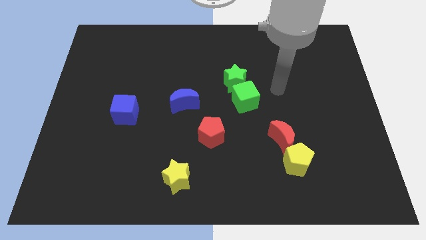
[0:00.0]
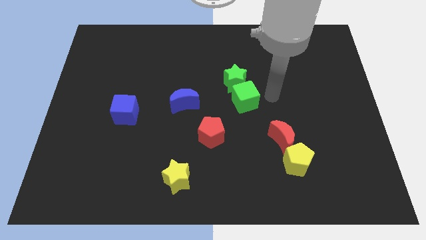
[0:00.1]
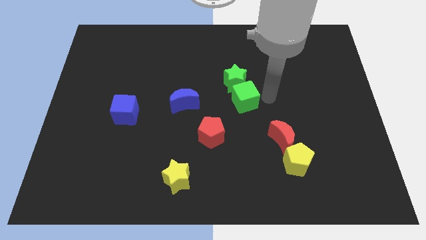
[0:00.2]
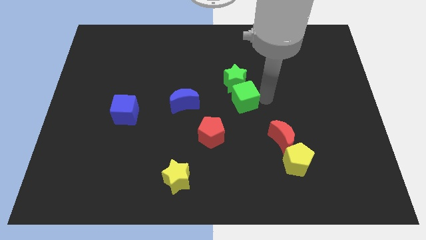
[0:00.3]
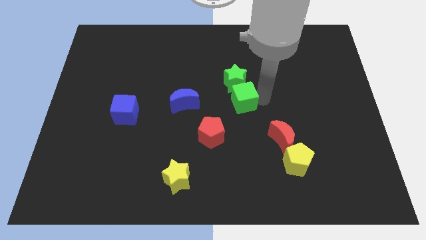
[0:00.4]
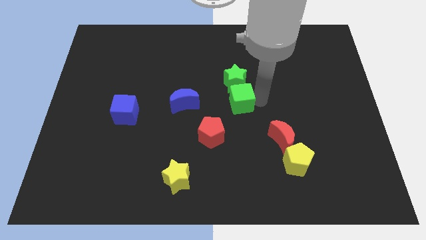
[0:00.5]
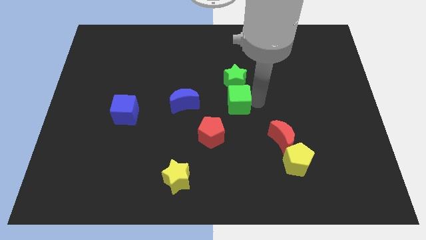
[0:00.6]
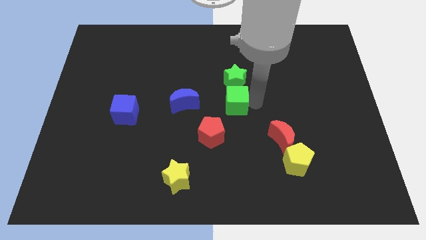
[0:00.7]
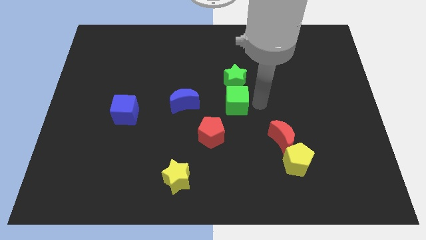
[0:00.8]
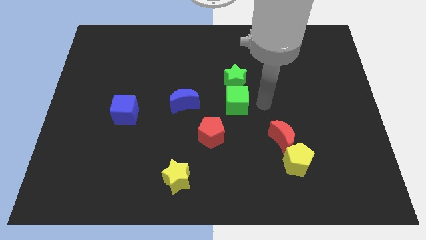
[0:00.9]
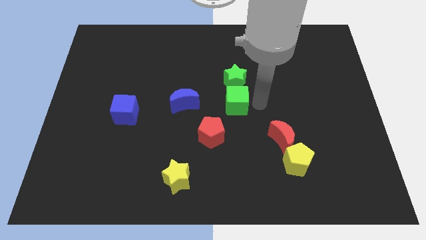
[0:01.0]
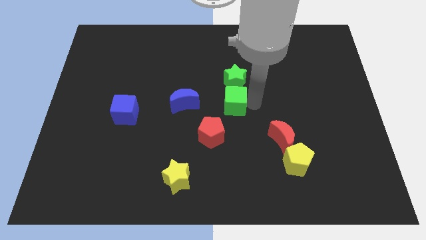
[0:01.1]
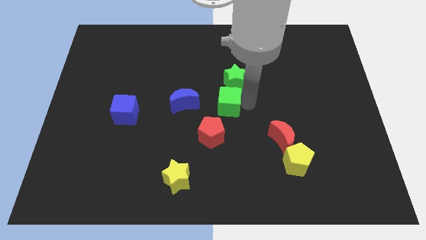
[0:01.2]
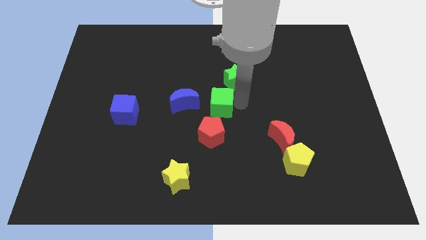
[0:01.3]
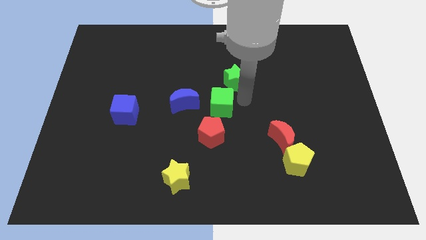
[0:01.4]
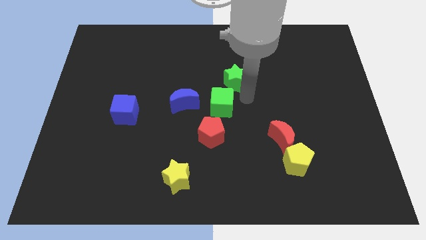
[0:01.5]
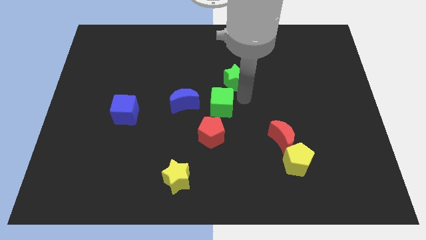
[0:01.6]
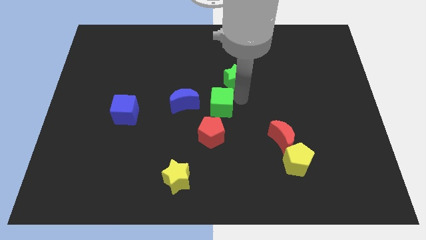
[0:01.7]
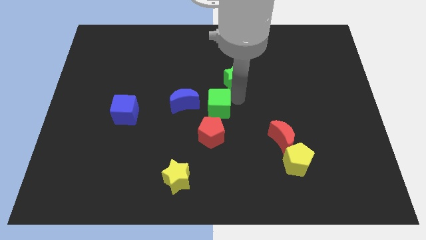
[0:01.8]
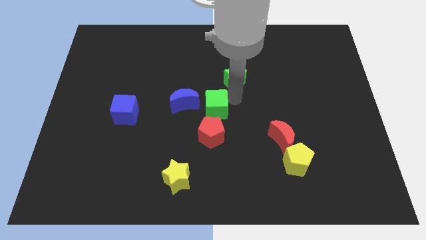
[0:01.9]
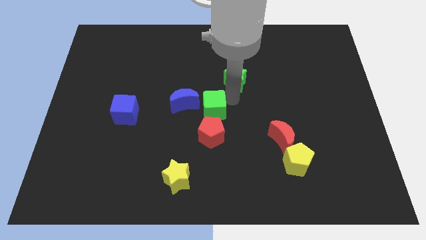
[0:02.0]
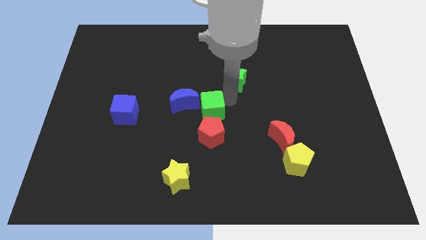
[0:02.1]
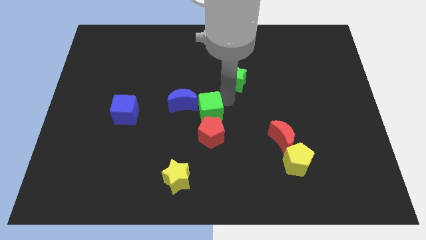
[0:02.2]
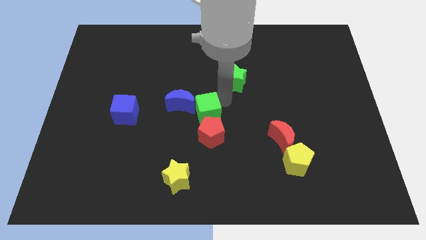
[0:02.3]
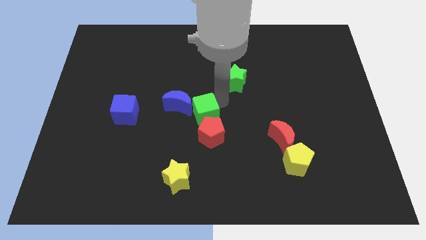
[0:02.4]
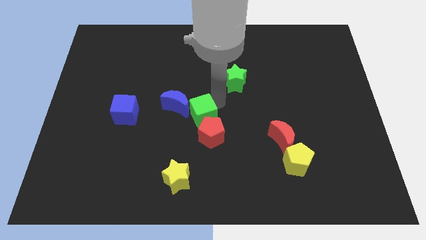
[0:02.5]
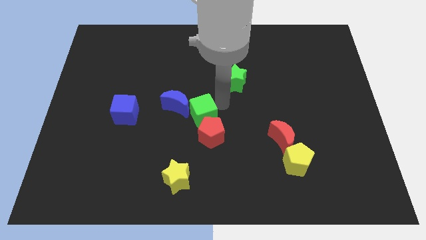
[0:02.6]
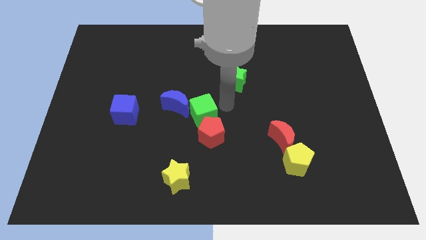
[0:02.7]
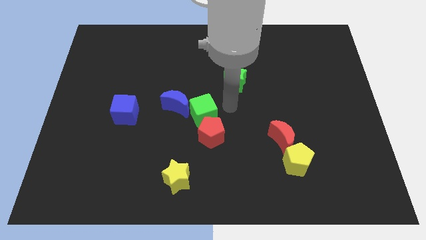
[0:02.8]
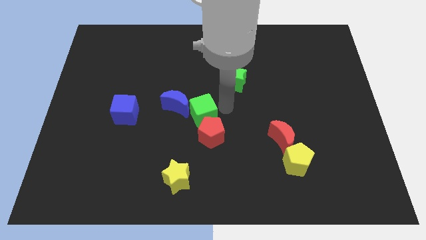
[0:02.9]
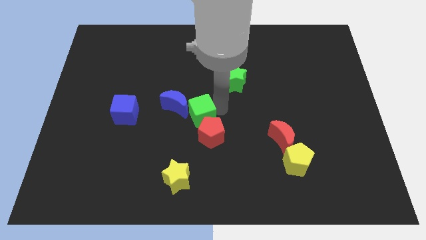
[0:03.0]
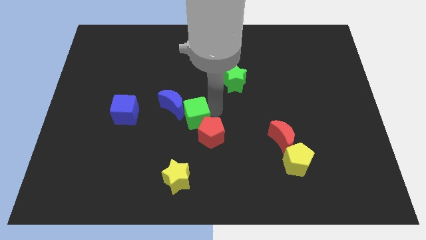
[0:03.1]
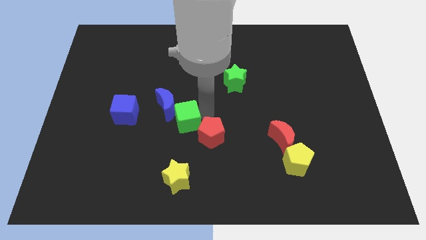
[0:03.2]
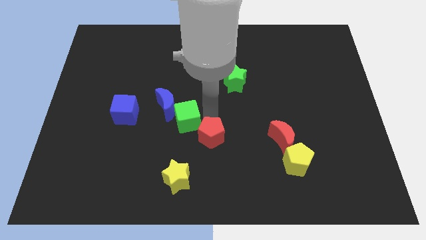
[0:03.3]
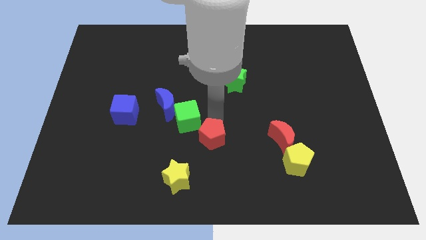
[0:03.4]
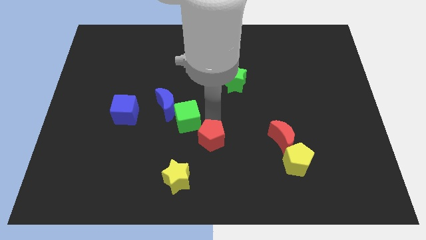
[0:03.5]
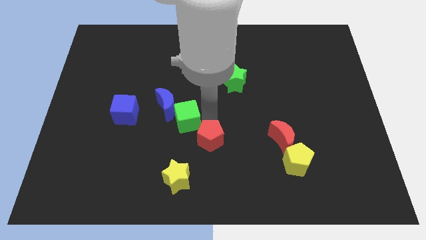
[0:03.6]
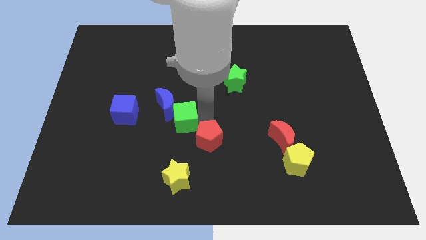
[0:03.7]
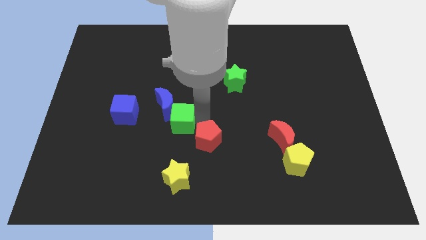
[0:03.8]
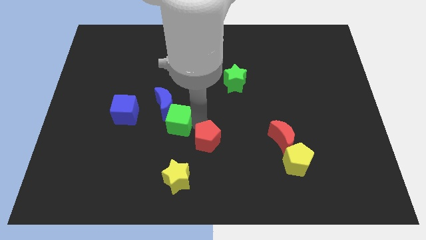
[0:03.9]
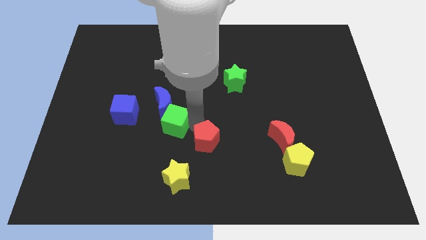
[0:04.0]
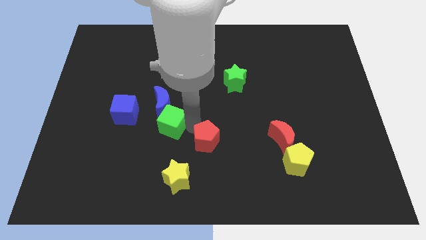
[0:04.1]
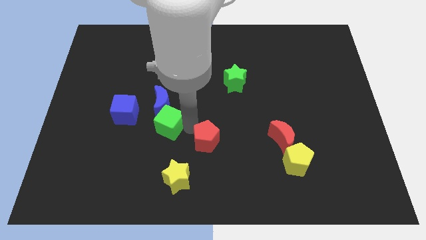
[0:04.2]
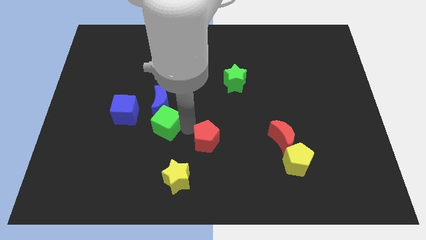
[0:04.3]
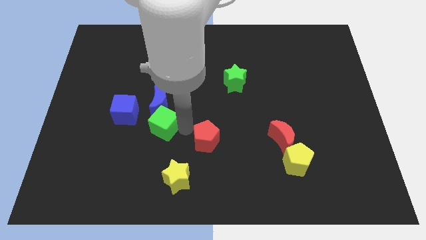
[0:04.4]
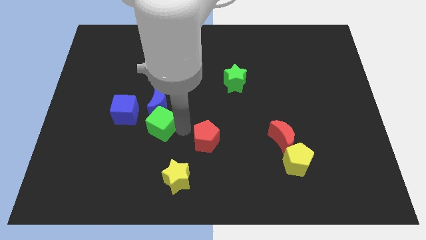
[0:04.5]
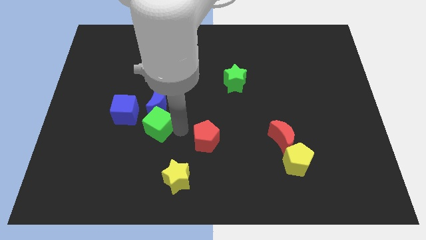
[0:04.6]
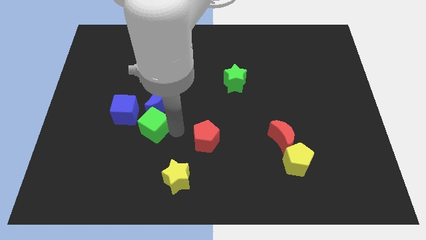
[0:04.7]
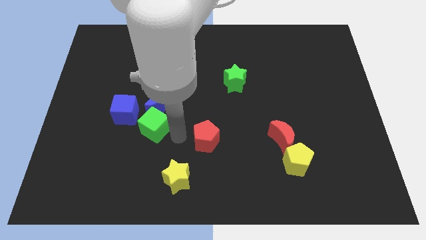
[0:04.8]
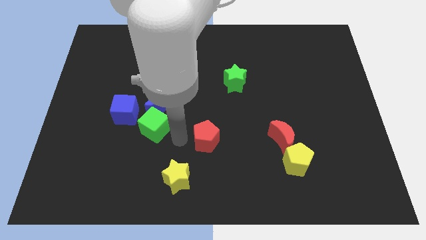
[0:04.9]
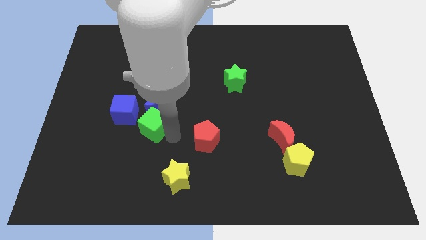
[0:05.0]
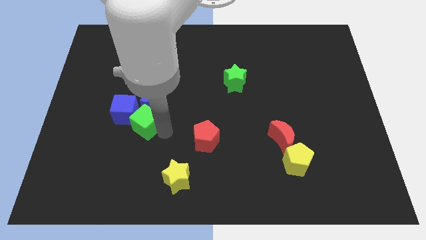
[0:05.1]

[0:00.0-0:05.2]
slide the green cube next to the blue cube

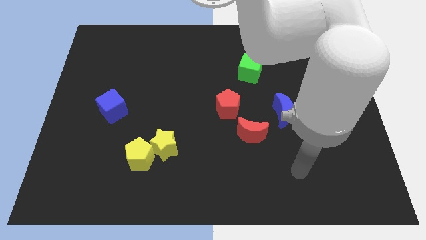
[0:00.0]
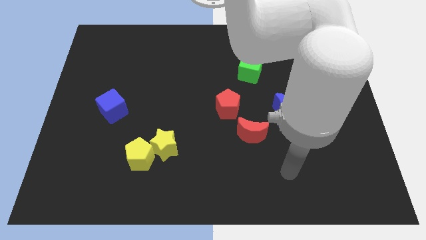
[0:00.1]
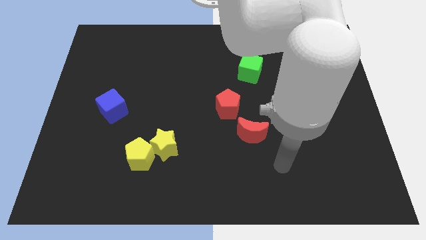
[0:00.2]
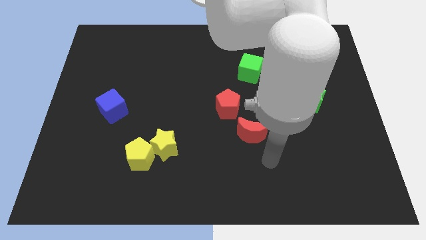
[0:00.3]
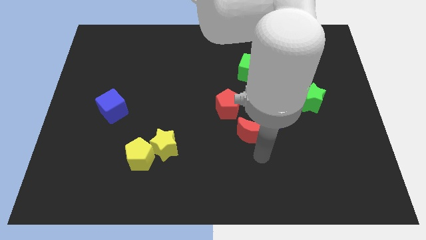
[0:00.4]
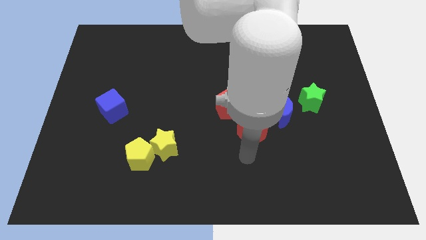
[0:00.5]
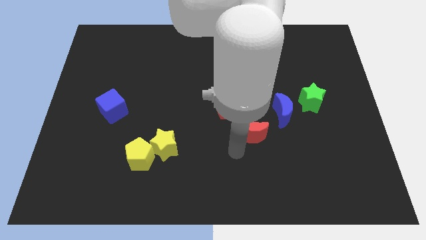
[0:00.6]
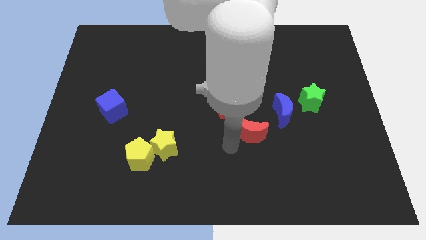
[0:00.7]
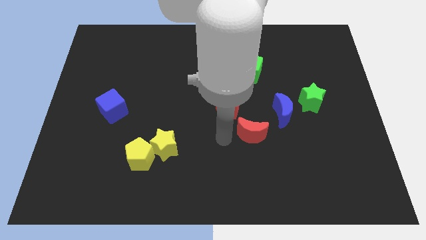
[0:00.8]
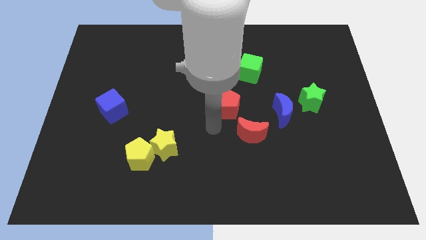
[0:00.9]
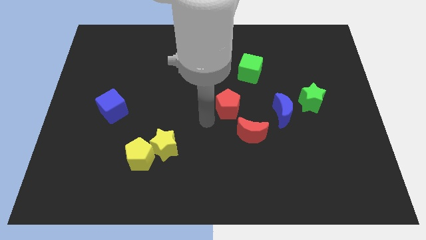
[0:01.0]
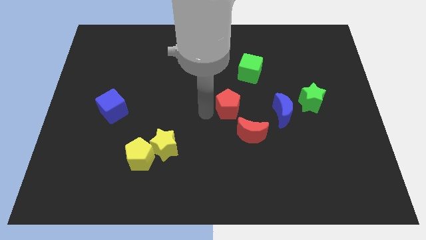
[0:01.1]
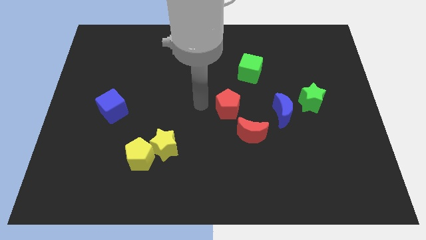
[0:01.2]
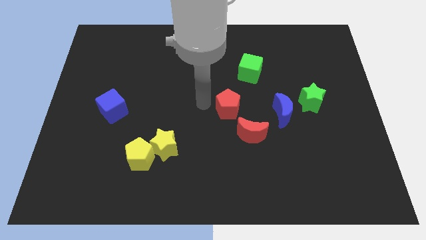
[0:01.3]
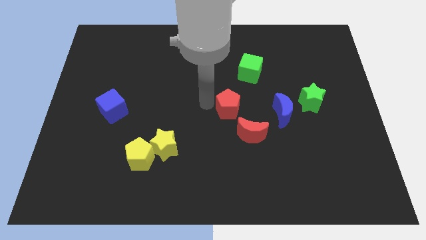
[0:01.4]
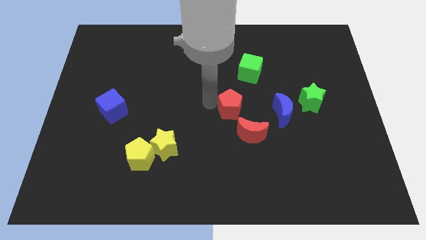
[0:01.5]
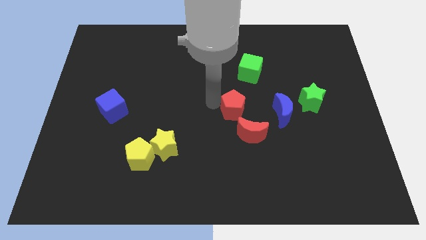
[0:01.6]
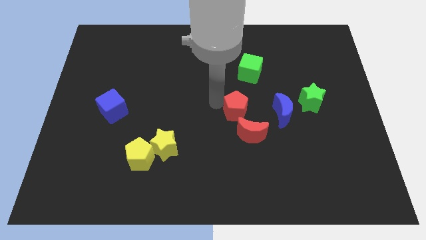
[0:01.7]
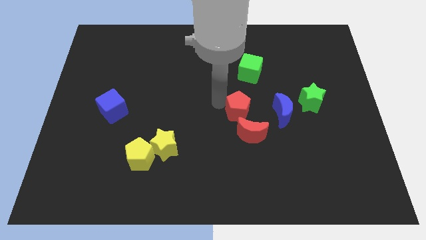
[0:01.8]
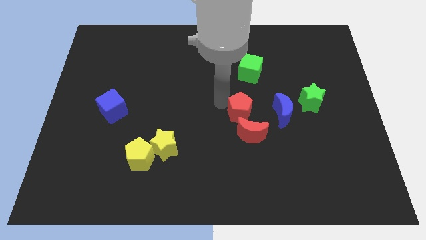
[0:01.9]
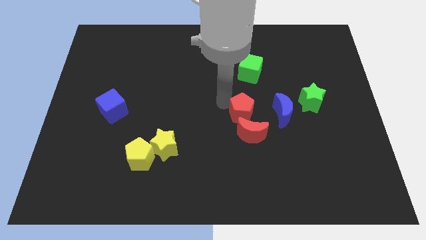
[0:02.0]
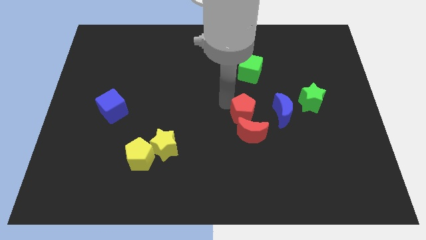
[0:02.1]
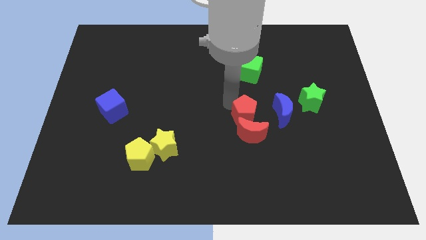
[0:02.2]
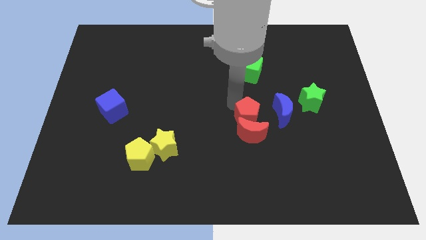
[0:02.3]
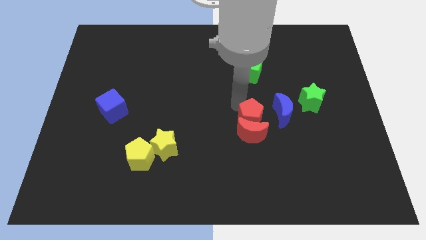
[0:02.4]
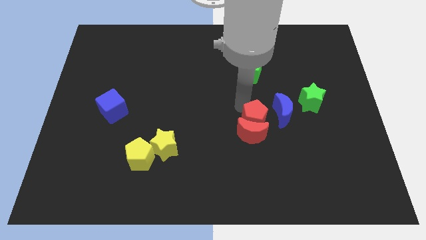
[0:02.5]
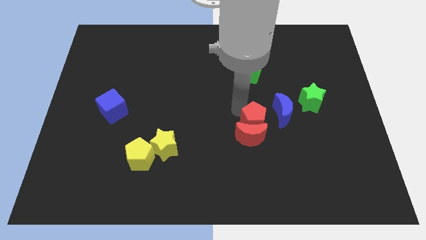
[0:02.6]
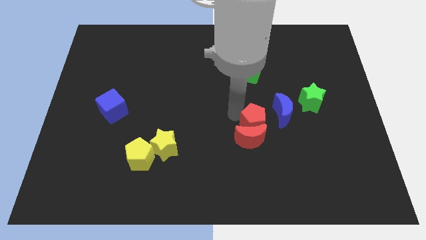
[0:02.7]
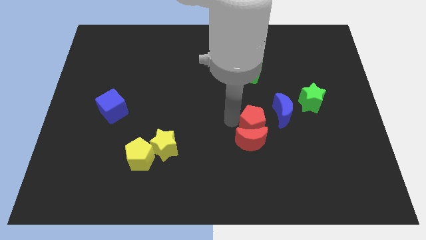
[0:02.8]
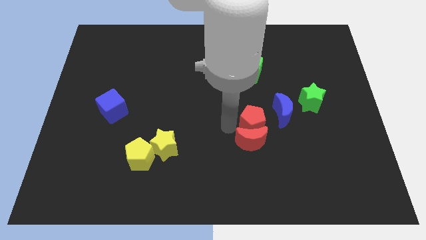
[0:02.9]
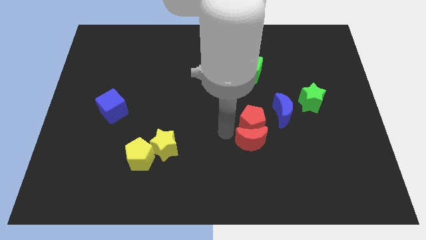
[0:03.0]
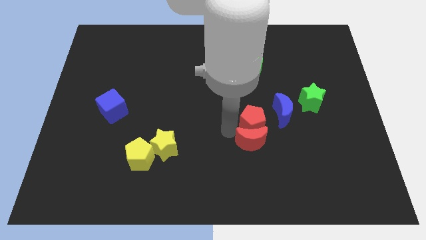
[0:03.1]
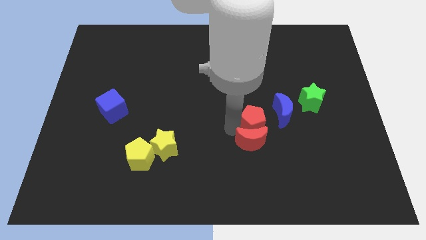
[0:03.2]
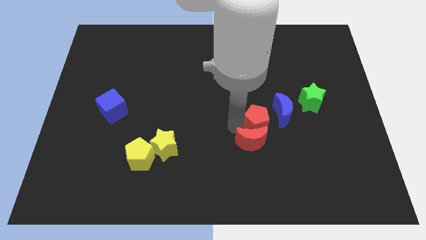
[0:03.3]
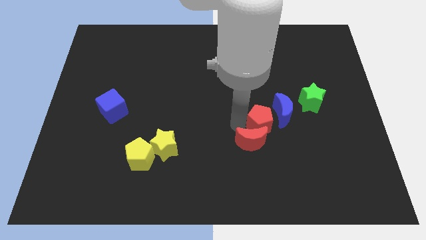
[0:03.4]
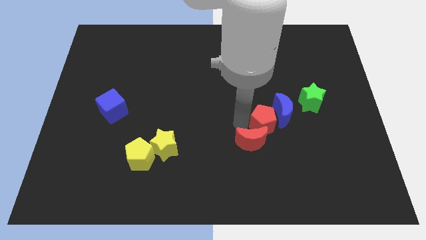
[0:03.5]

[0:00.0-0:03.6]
slide the red pentagon towards the blue moon
